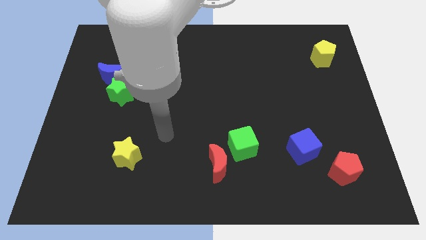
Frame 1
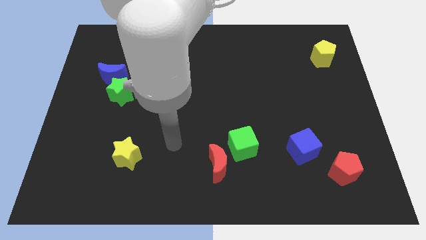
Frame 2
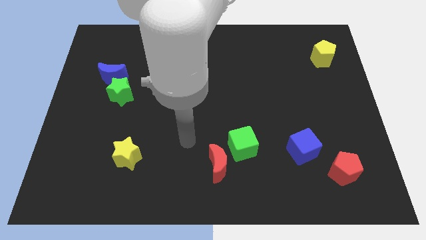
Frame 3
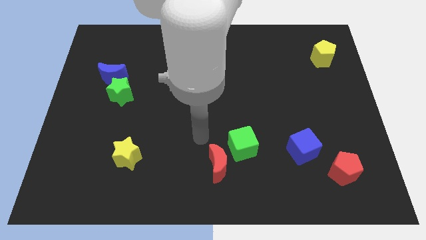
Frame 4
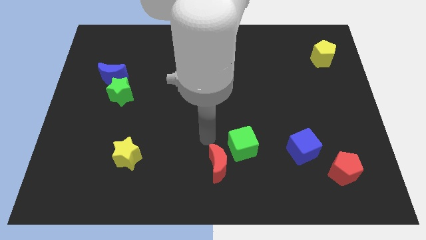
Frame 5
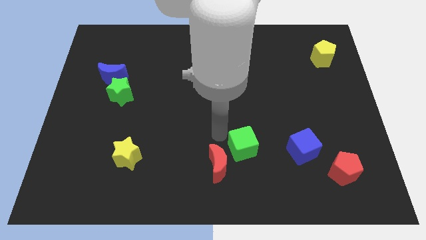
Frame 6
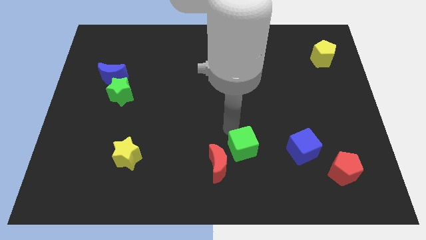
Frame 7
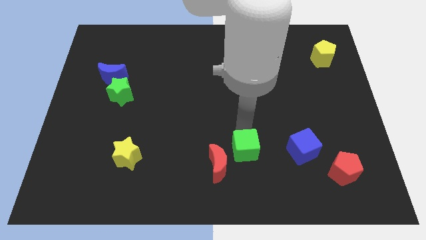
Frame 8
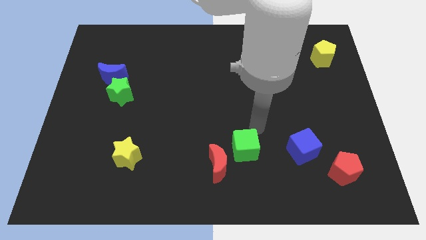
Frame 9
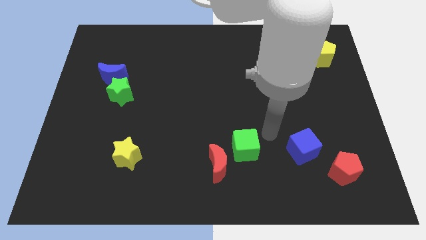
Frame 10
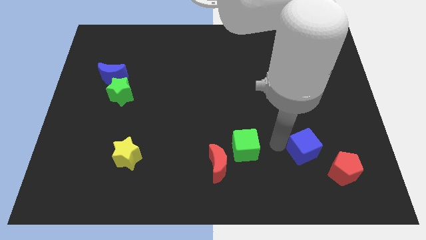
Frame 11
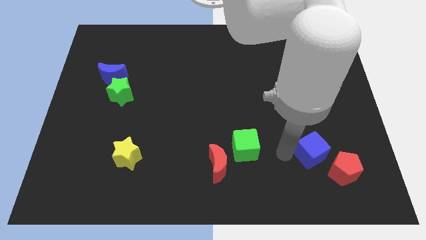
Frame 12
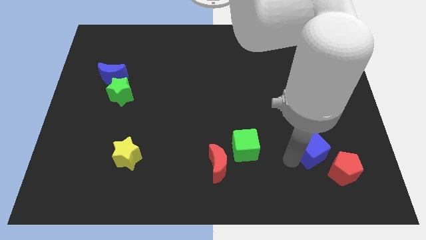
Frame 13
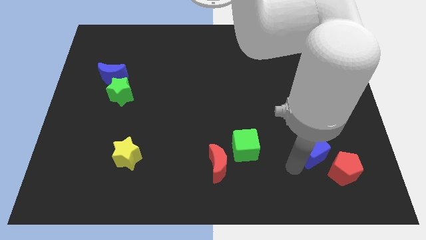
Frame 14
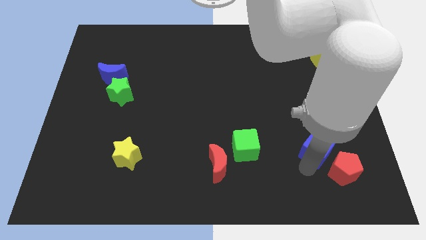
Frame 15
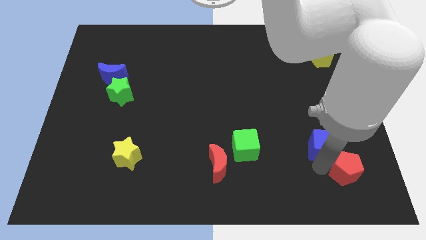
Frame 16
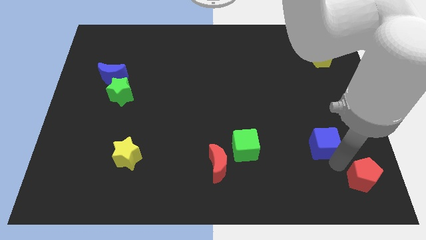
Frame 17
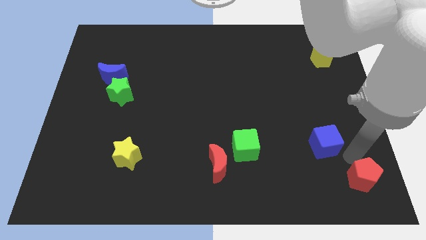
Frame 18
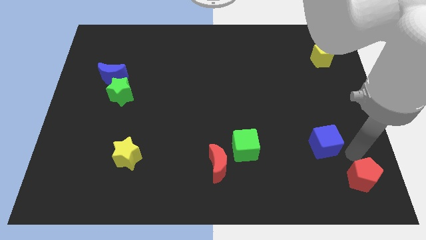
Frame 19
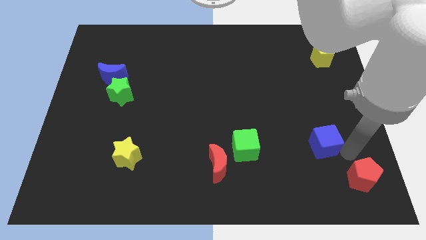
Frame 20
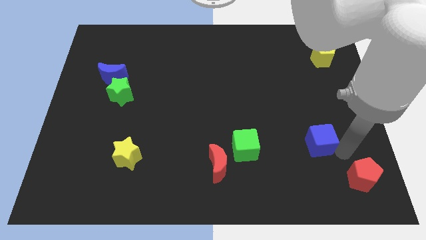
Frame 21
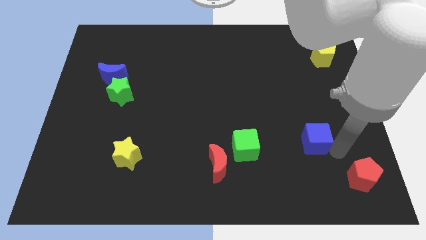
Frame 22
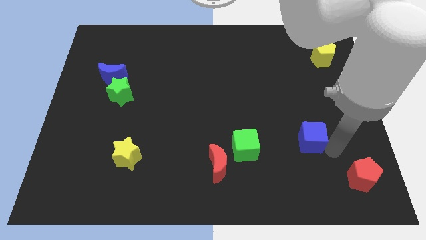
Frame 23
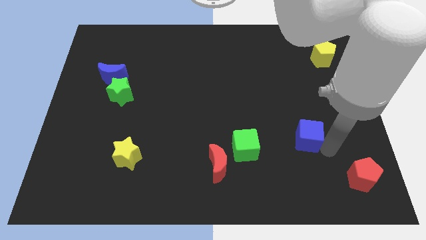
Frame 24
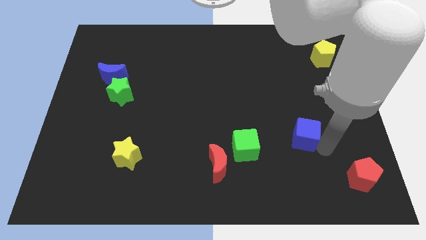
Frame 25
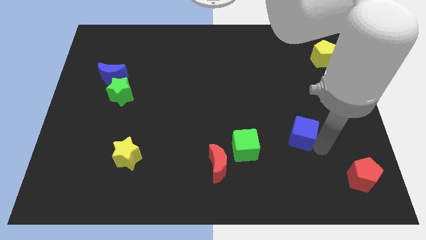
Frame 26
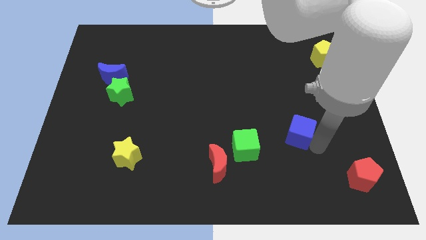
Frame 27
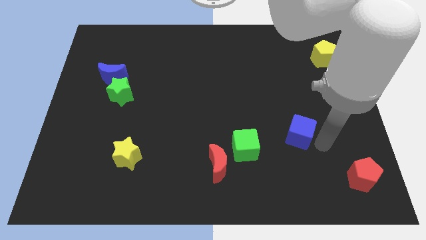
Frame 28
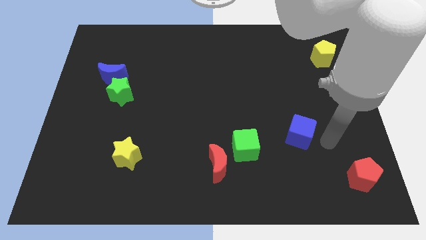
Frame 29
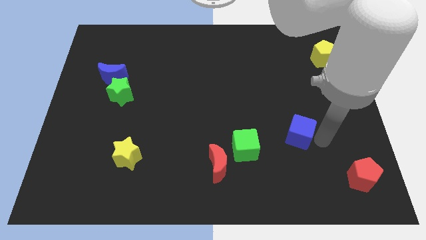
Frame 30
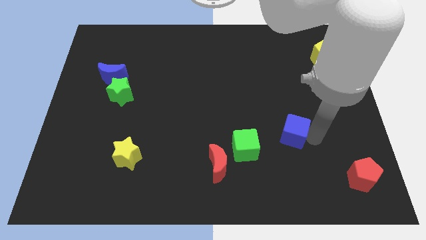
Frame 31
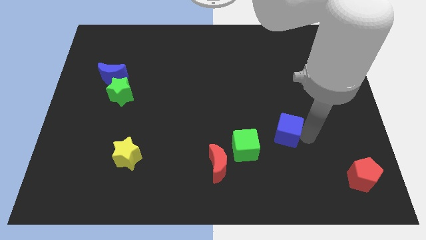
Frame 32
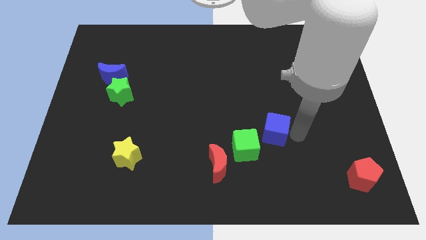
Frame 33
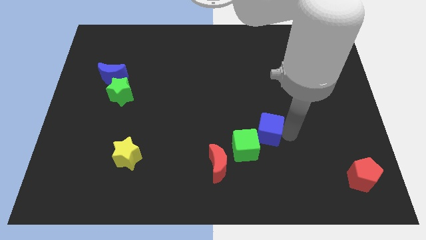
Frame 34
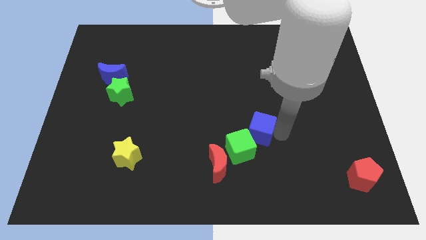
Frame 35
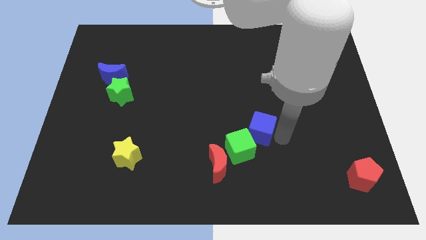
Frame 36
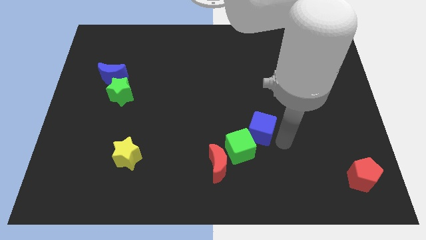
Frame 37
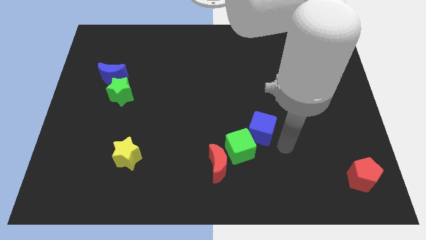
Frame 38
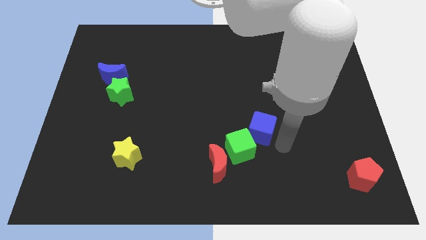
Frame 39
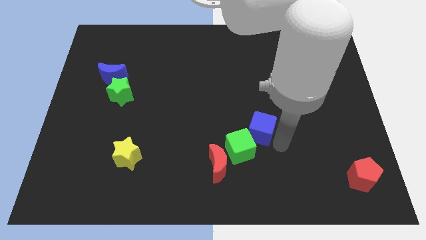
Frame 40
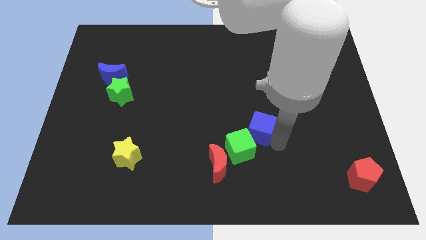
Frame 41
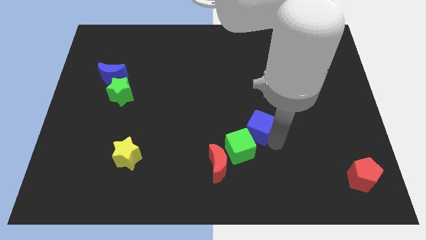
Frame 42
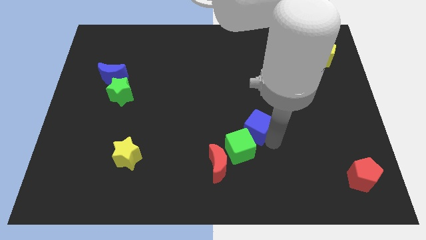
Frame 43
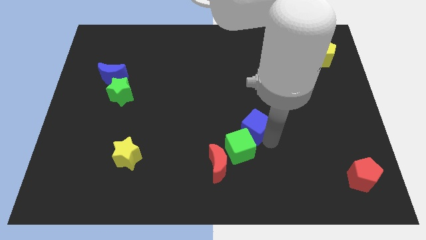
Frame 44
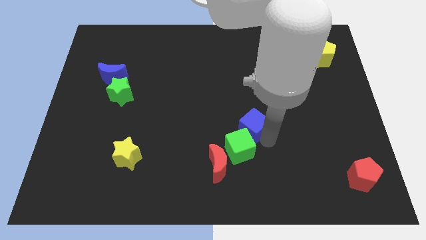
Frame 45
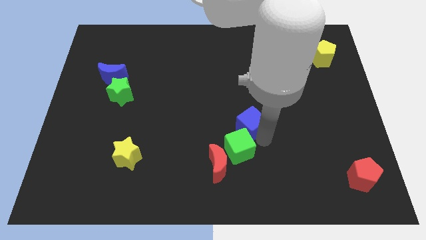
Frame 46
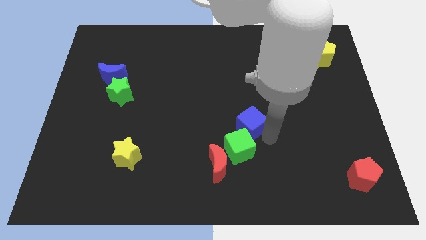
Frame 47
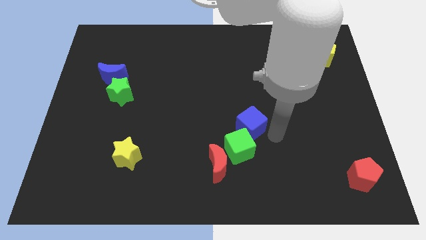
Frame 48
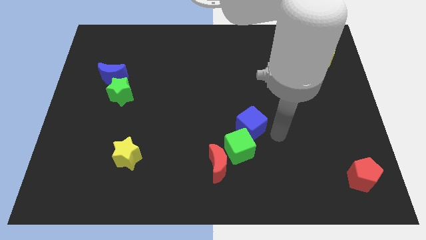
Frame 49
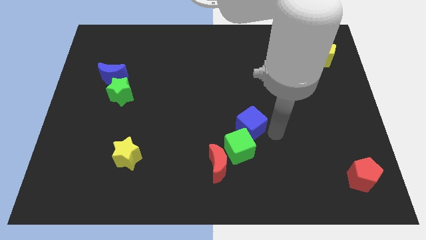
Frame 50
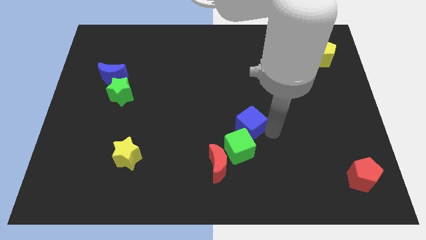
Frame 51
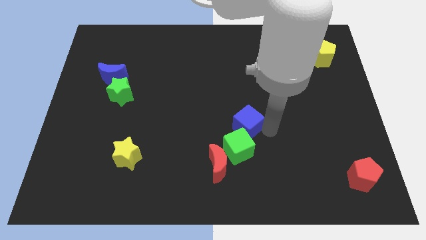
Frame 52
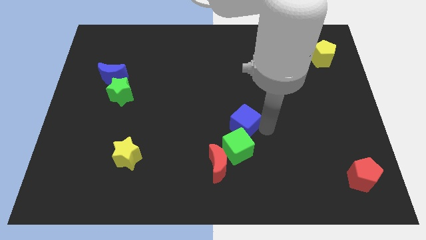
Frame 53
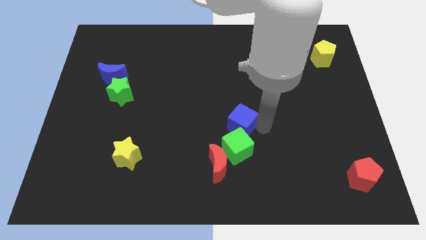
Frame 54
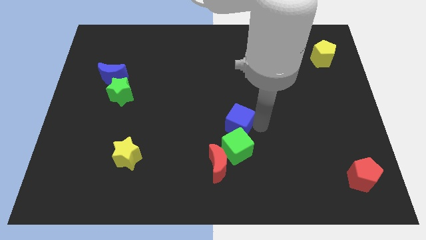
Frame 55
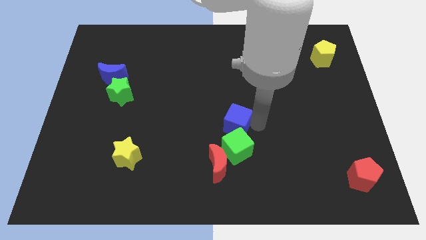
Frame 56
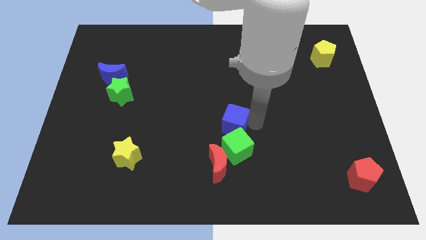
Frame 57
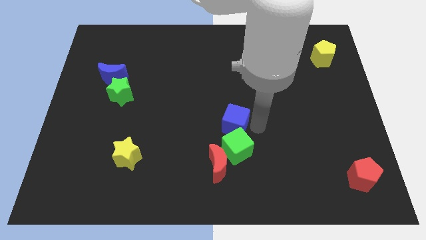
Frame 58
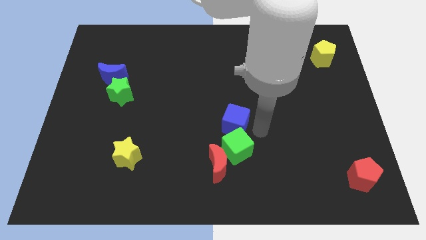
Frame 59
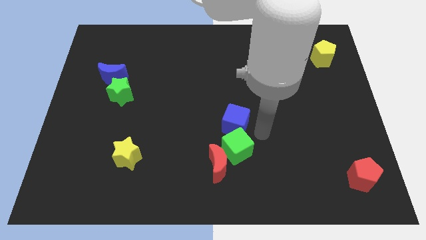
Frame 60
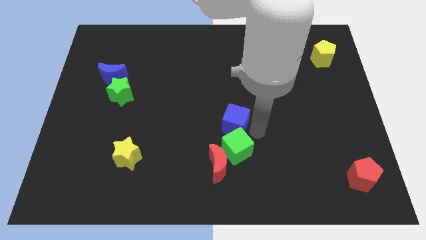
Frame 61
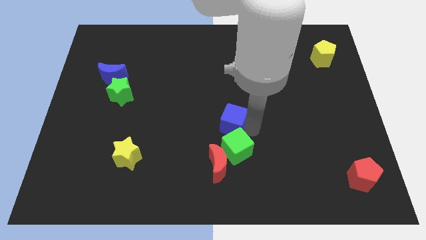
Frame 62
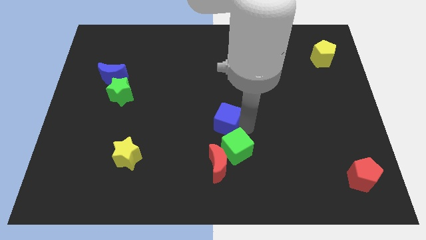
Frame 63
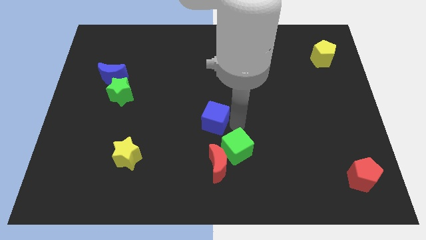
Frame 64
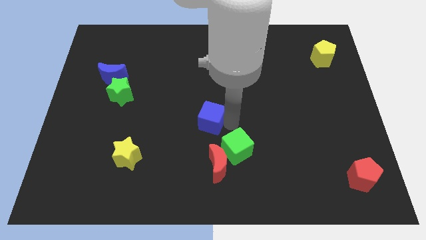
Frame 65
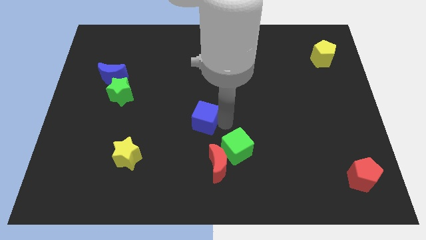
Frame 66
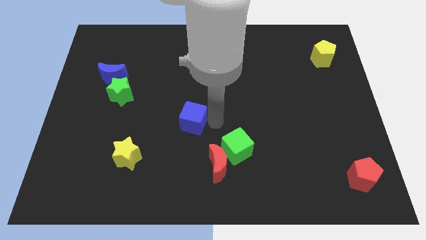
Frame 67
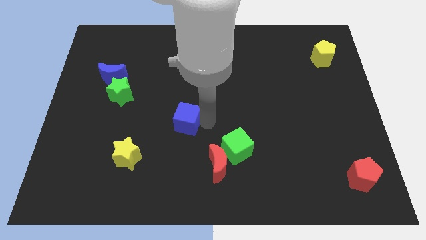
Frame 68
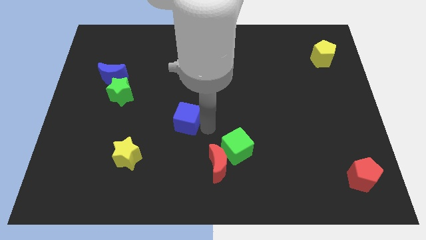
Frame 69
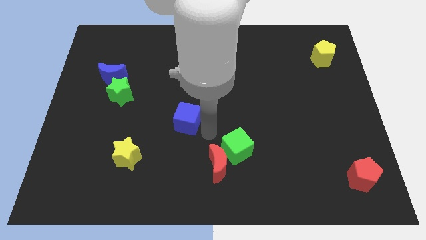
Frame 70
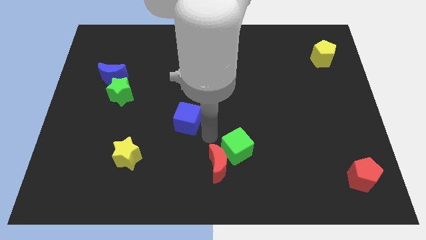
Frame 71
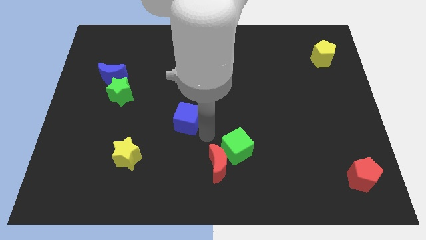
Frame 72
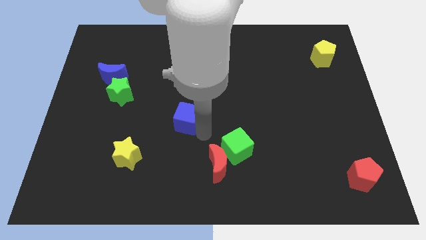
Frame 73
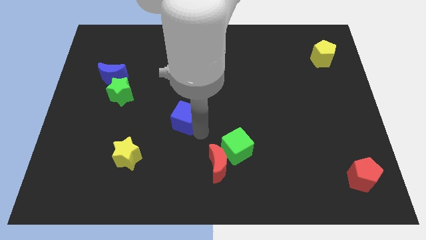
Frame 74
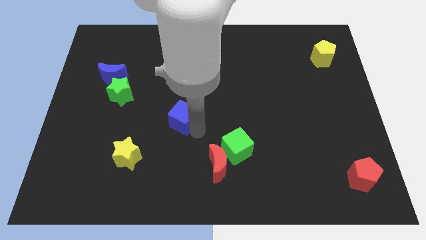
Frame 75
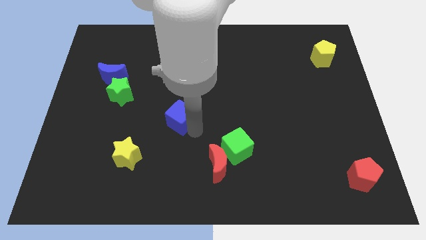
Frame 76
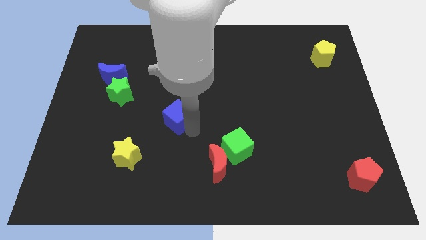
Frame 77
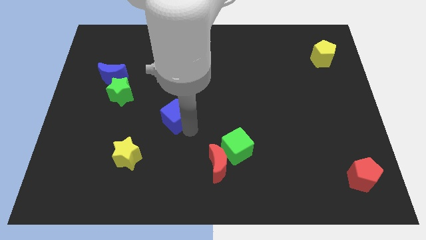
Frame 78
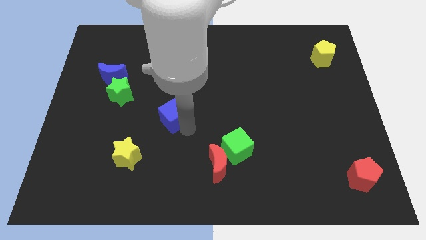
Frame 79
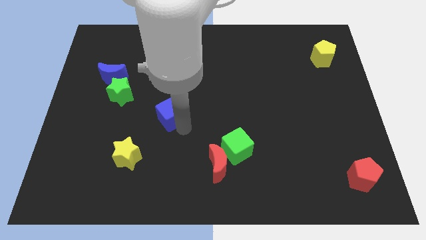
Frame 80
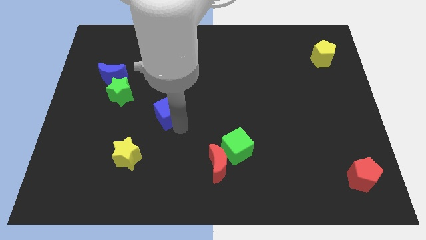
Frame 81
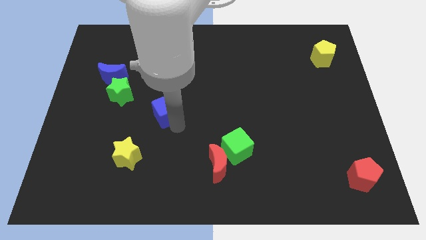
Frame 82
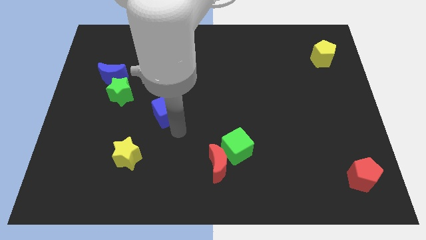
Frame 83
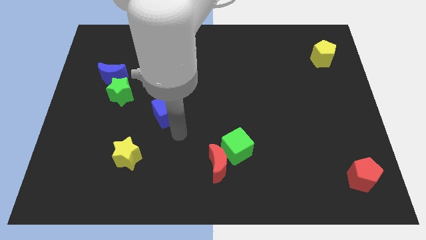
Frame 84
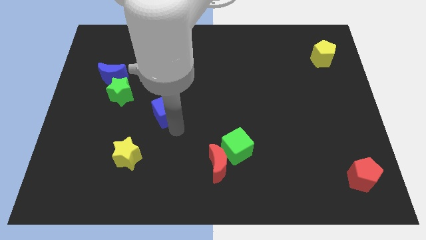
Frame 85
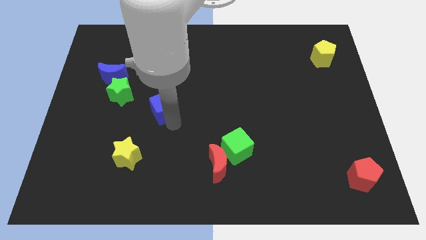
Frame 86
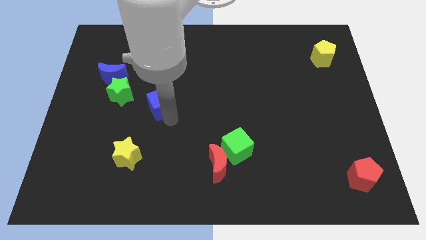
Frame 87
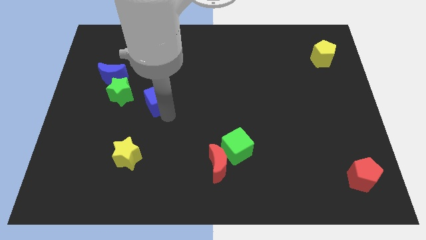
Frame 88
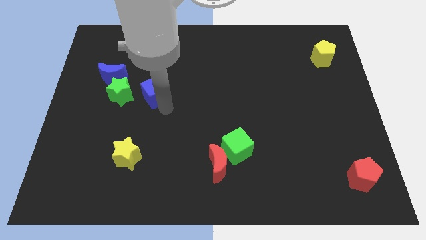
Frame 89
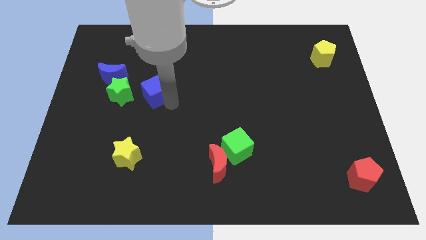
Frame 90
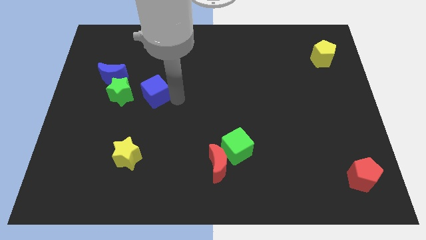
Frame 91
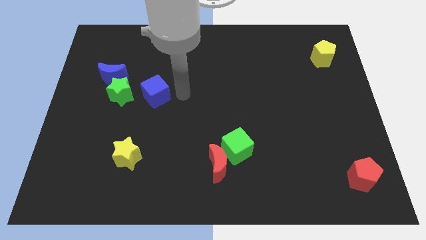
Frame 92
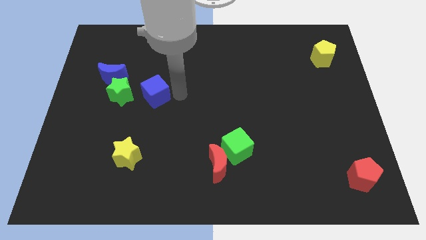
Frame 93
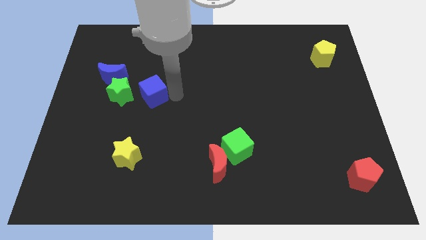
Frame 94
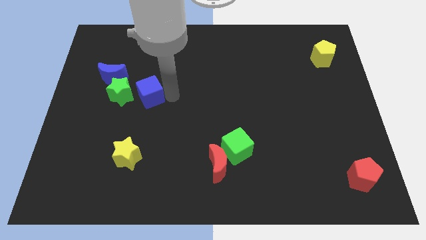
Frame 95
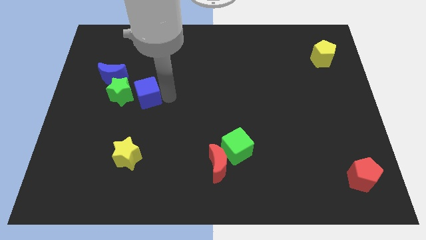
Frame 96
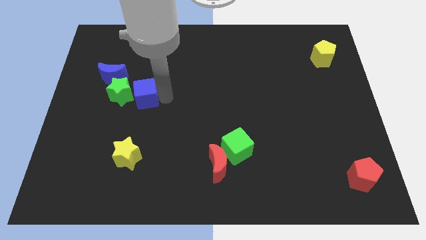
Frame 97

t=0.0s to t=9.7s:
push the blue cube close to the green star
